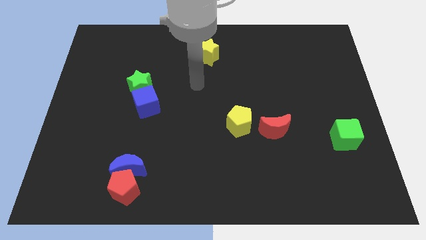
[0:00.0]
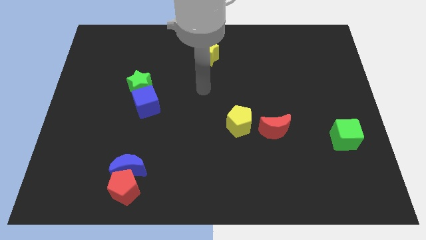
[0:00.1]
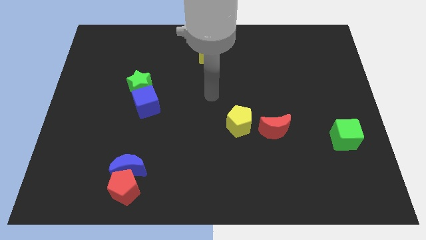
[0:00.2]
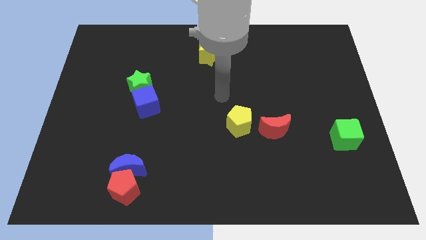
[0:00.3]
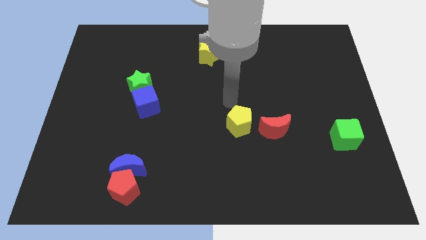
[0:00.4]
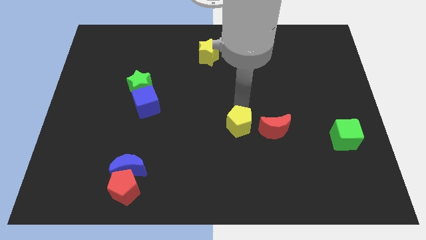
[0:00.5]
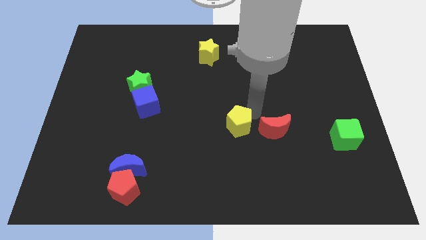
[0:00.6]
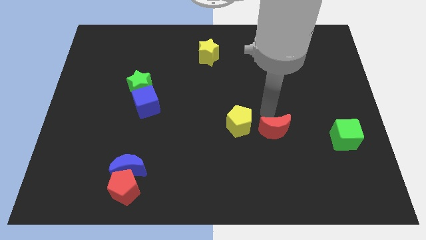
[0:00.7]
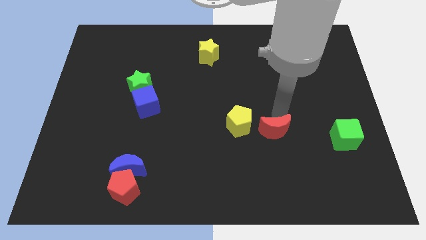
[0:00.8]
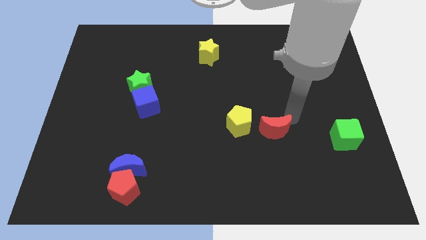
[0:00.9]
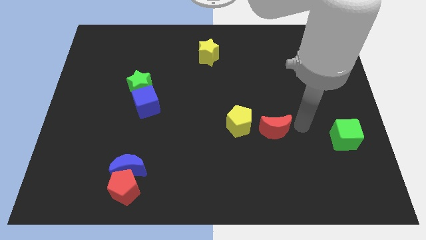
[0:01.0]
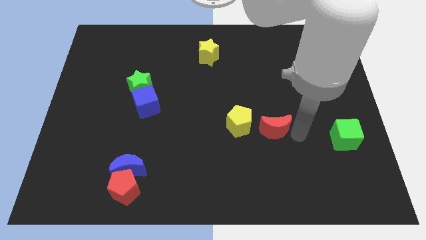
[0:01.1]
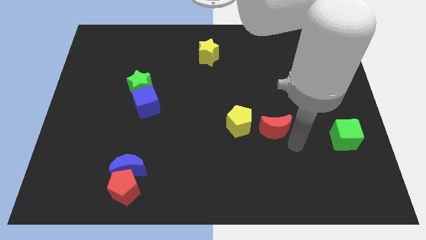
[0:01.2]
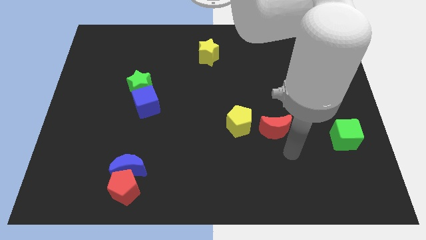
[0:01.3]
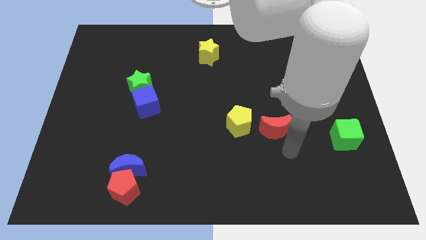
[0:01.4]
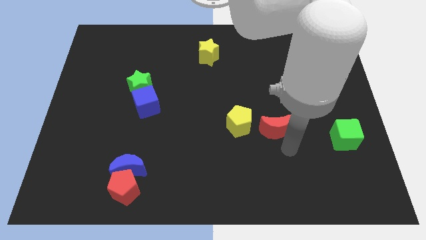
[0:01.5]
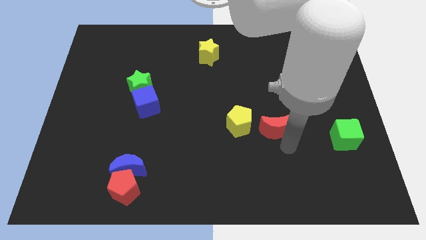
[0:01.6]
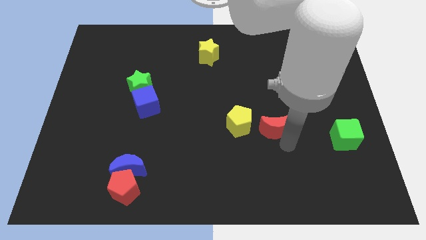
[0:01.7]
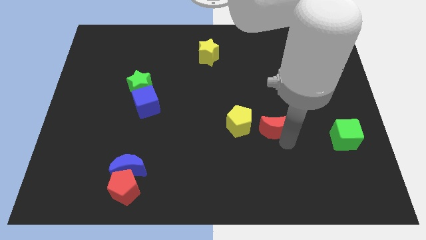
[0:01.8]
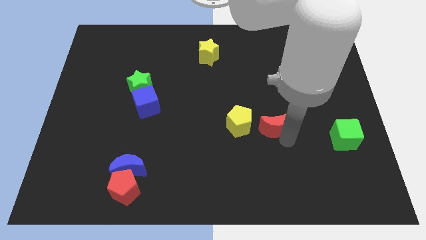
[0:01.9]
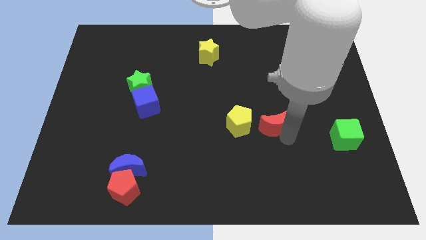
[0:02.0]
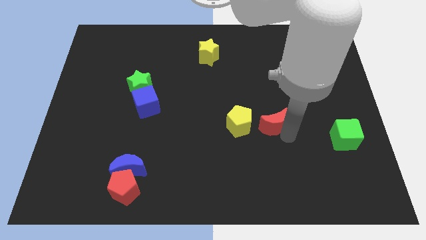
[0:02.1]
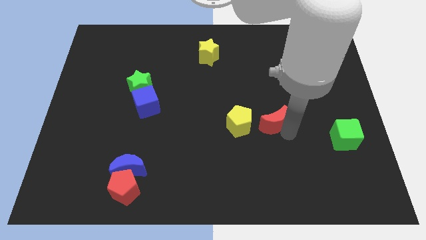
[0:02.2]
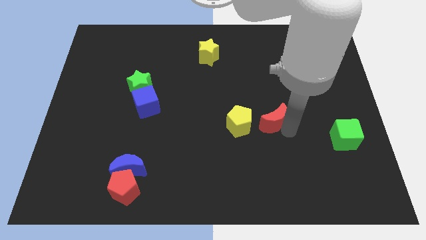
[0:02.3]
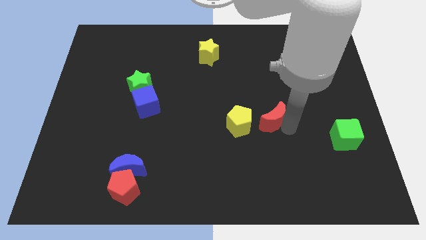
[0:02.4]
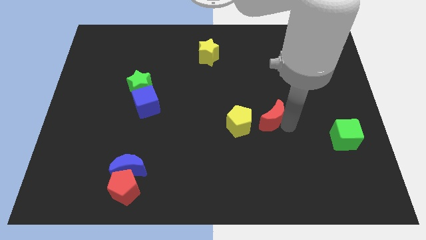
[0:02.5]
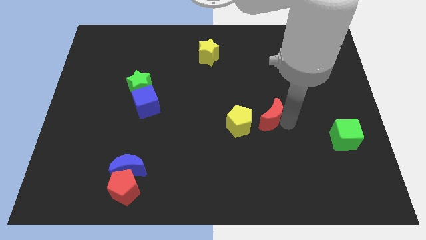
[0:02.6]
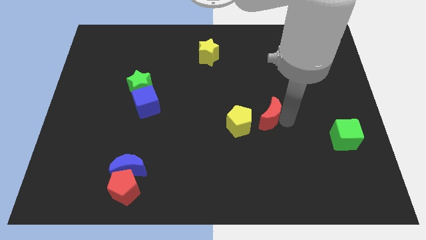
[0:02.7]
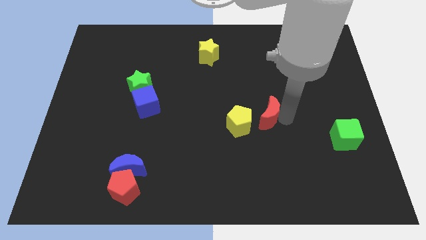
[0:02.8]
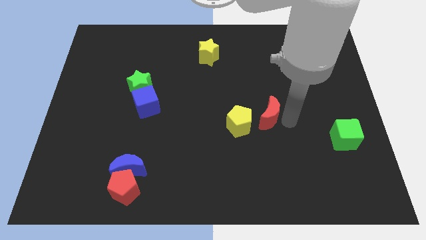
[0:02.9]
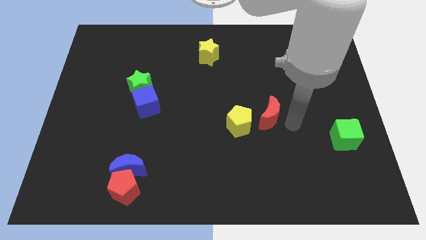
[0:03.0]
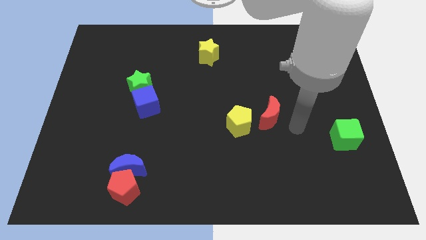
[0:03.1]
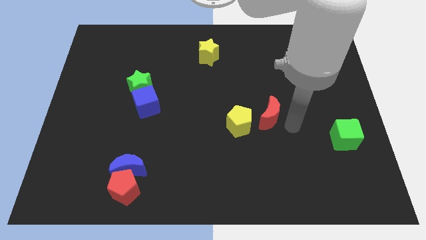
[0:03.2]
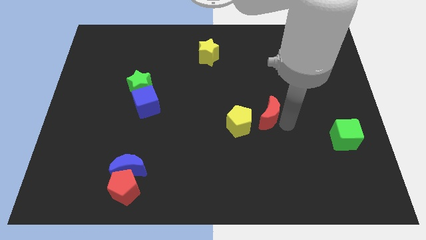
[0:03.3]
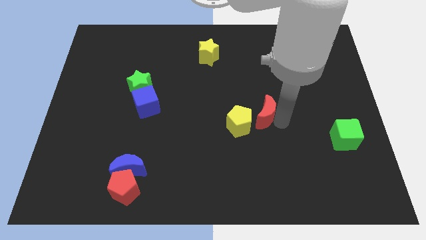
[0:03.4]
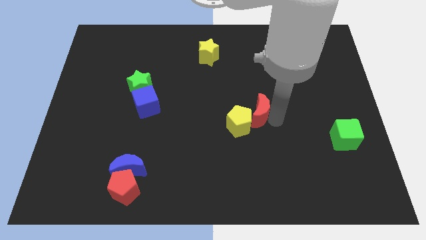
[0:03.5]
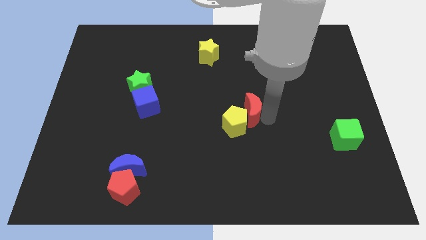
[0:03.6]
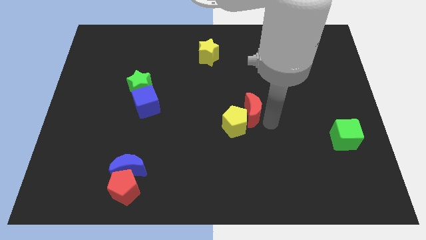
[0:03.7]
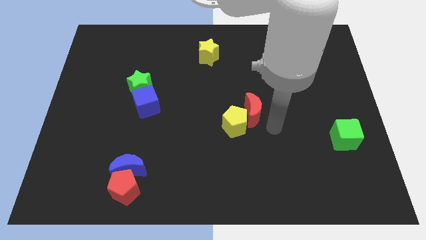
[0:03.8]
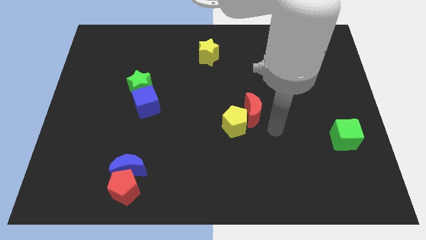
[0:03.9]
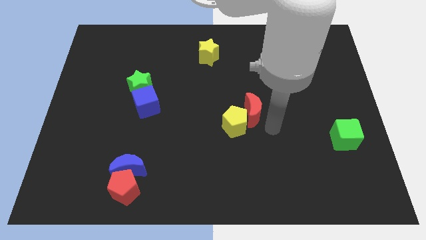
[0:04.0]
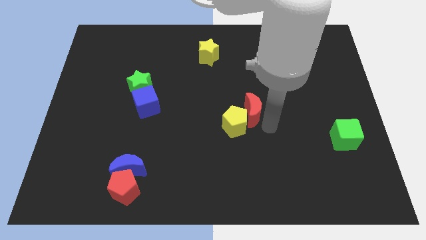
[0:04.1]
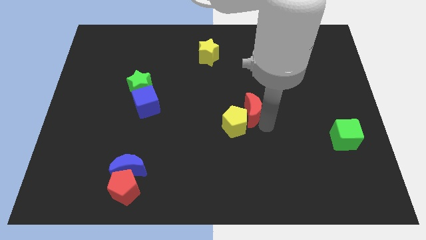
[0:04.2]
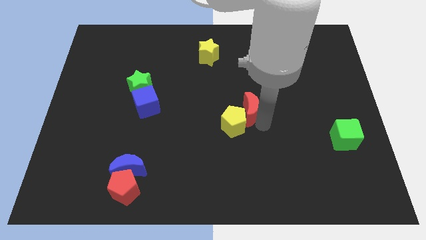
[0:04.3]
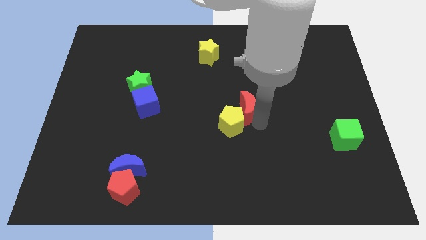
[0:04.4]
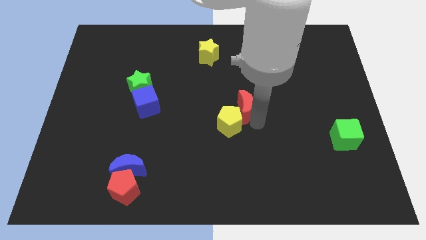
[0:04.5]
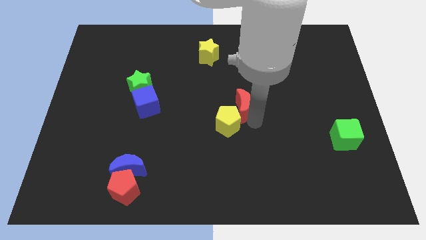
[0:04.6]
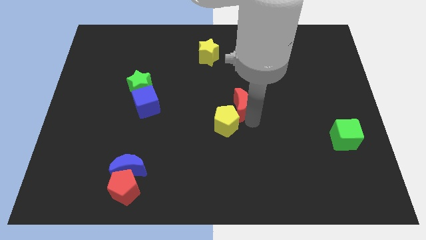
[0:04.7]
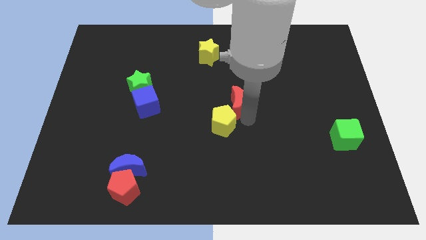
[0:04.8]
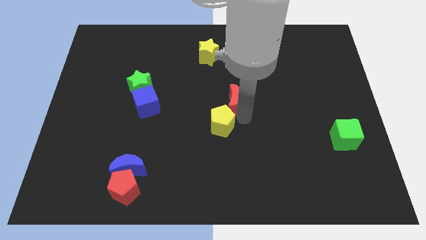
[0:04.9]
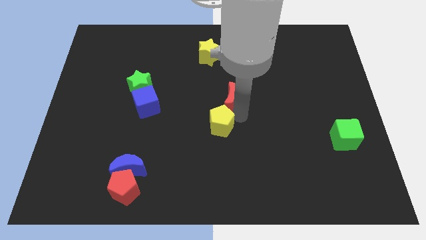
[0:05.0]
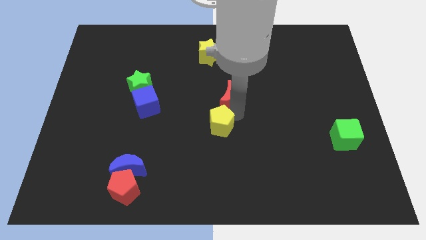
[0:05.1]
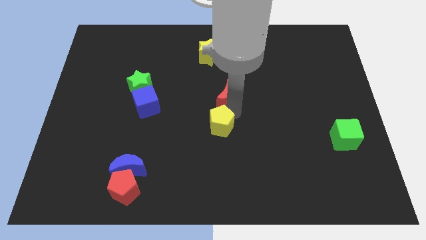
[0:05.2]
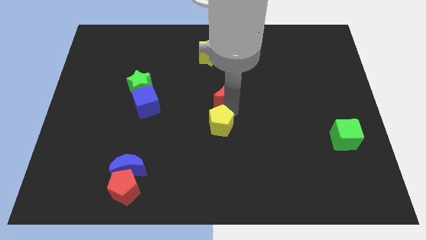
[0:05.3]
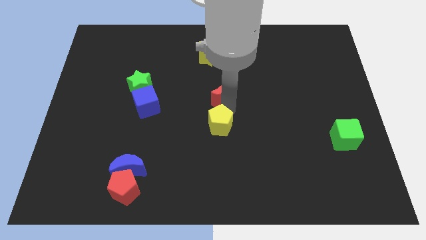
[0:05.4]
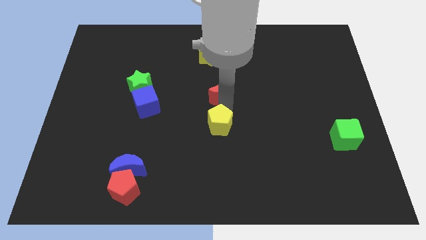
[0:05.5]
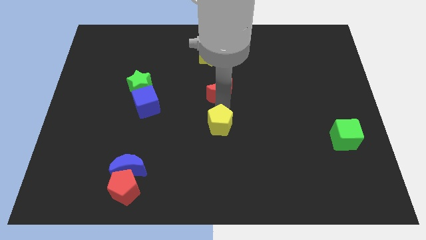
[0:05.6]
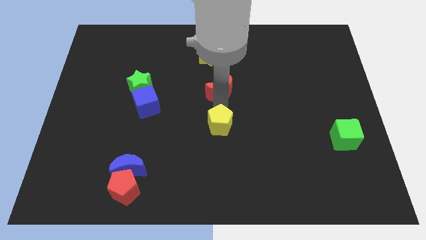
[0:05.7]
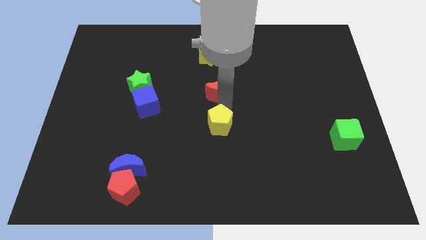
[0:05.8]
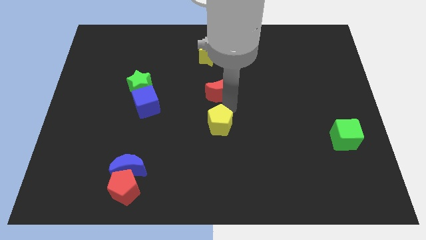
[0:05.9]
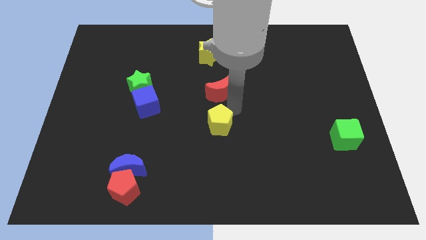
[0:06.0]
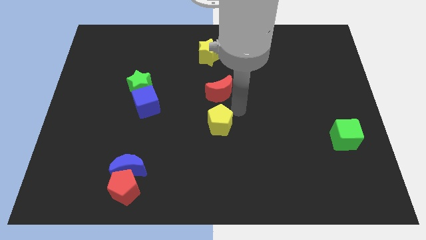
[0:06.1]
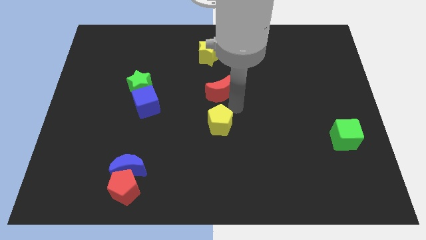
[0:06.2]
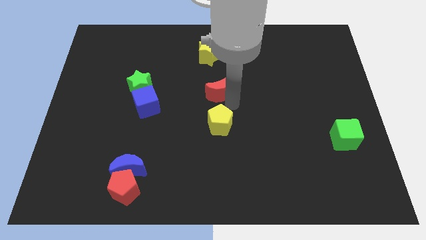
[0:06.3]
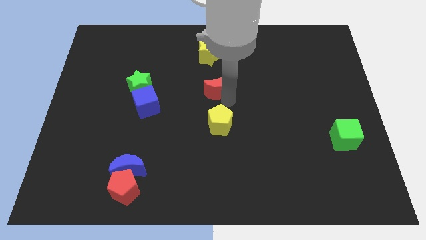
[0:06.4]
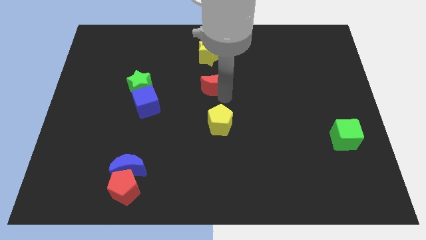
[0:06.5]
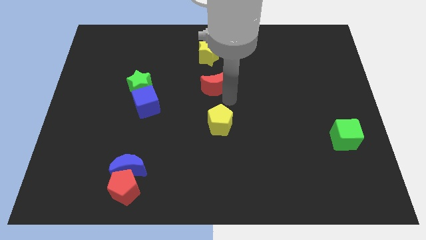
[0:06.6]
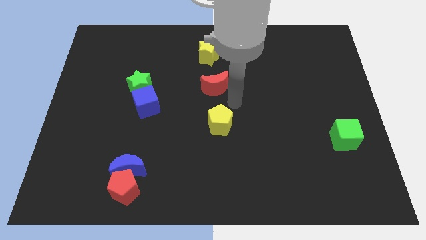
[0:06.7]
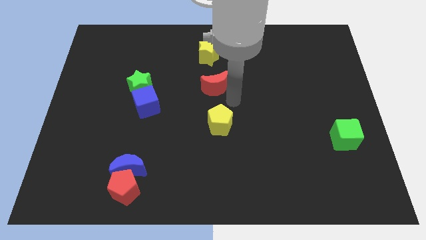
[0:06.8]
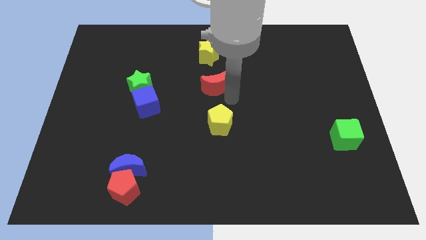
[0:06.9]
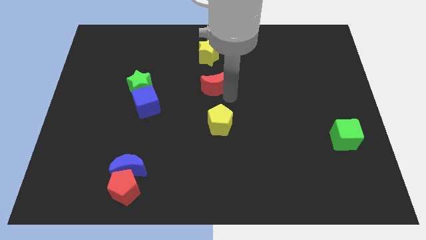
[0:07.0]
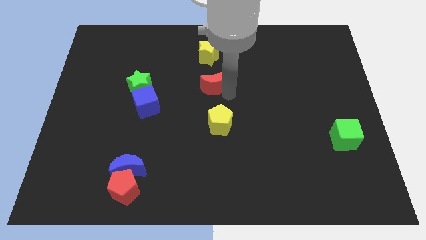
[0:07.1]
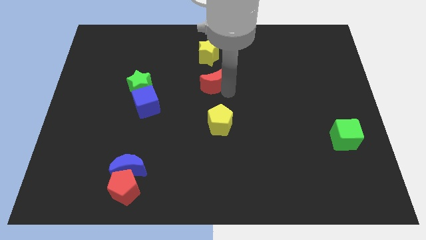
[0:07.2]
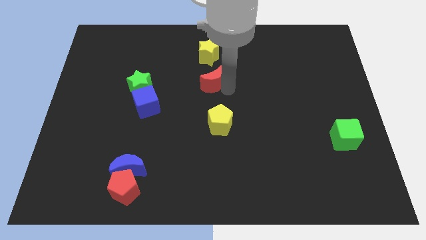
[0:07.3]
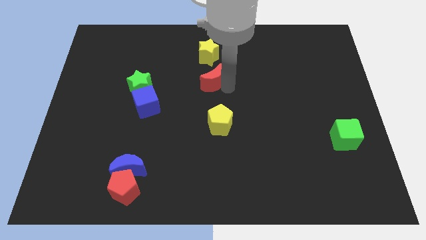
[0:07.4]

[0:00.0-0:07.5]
slide the red moon diagonally upwards and left

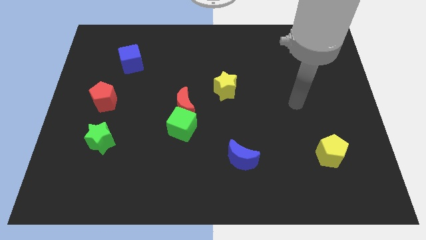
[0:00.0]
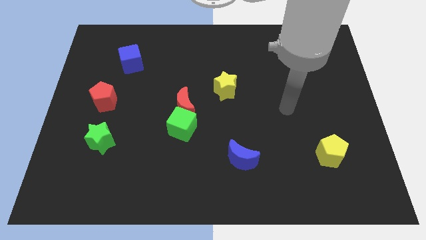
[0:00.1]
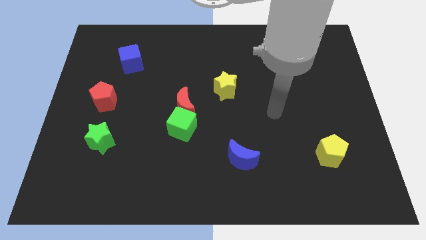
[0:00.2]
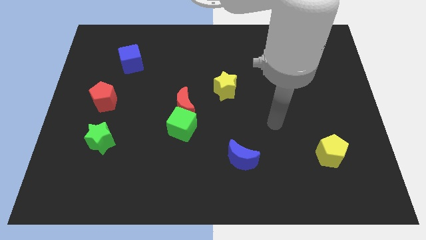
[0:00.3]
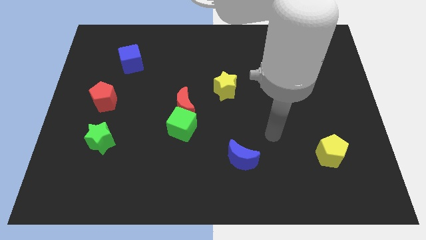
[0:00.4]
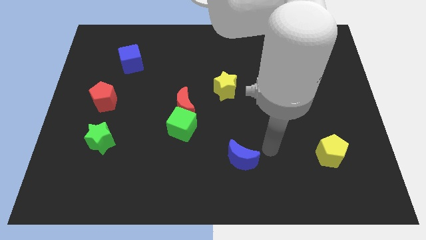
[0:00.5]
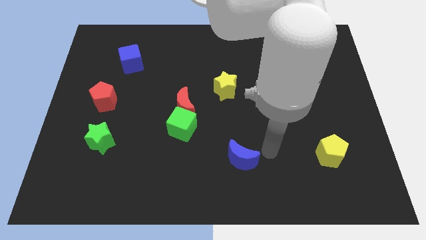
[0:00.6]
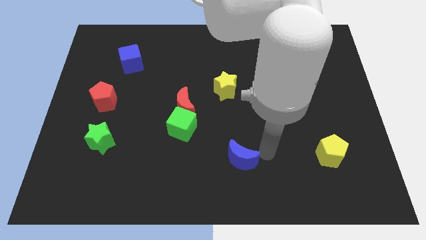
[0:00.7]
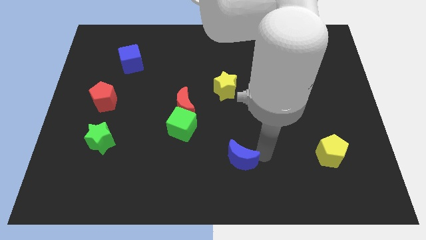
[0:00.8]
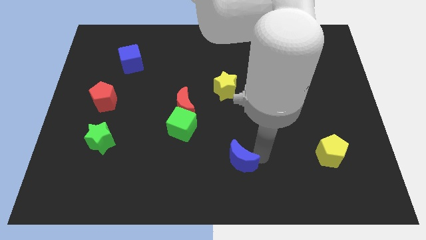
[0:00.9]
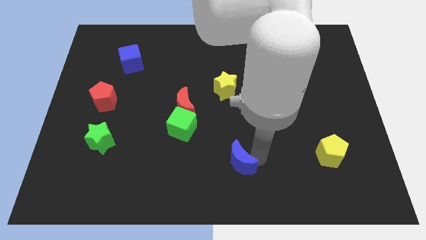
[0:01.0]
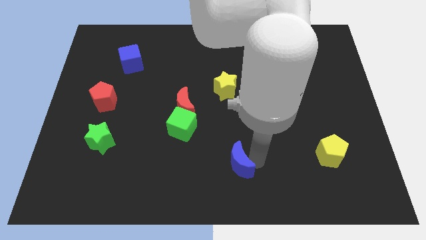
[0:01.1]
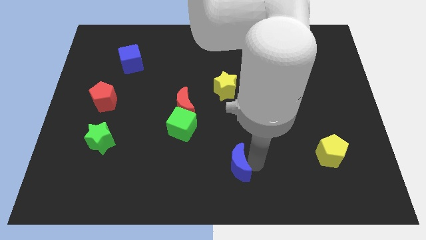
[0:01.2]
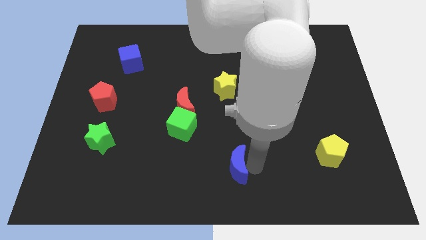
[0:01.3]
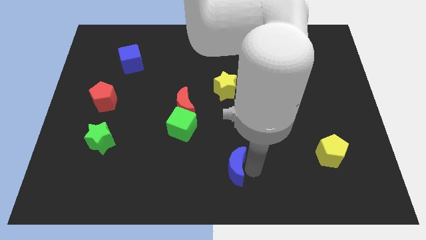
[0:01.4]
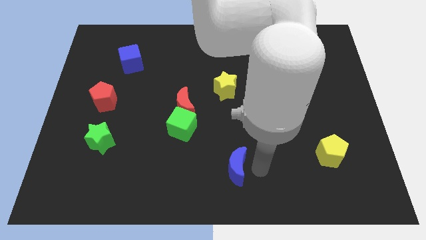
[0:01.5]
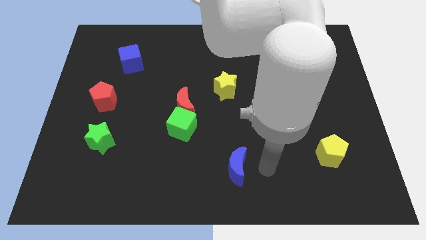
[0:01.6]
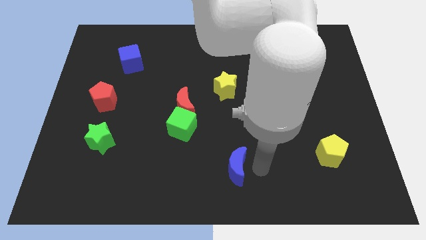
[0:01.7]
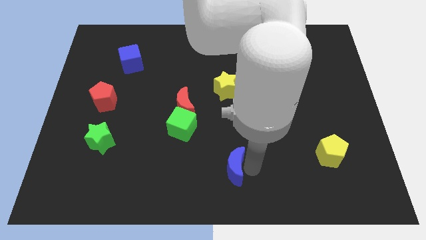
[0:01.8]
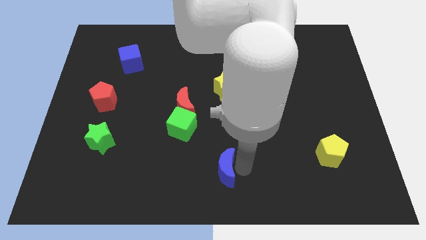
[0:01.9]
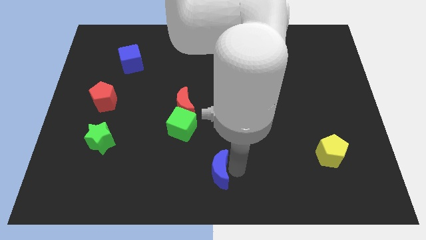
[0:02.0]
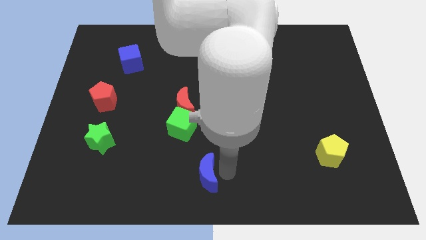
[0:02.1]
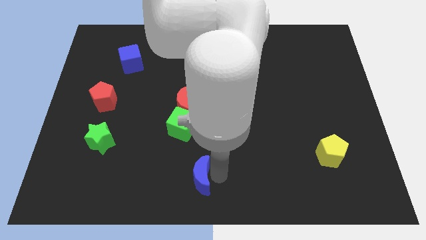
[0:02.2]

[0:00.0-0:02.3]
move the blue moon a bit left
